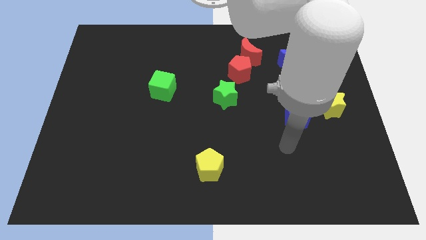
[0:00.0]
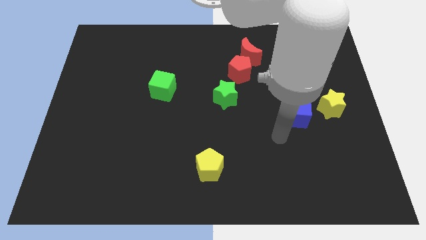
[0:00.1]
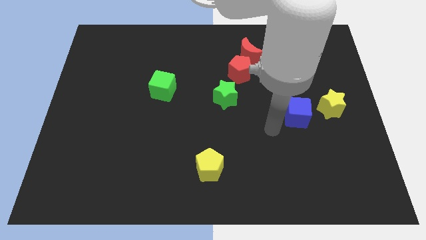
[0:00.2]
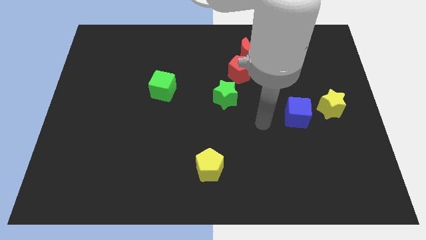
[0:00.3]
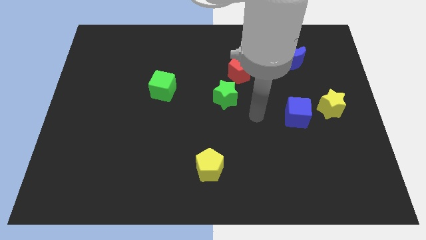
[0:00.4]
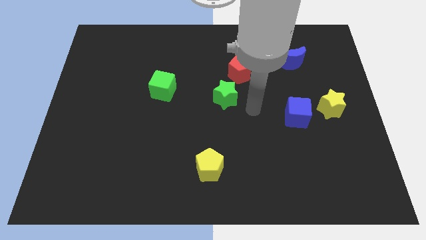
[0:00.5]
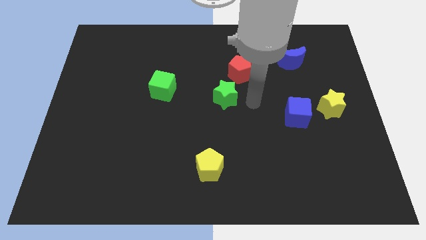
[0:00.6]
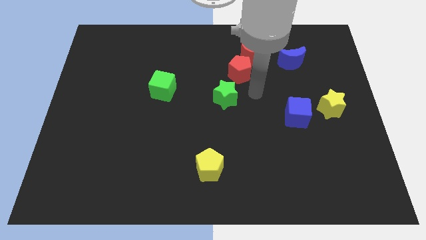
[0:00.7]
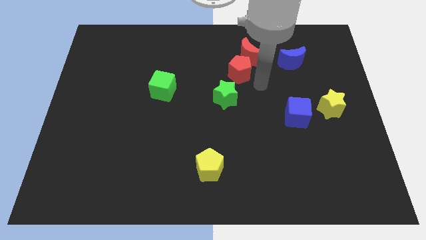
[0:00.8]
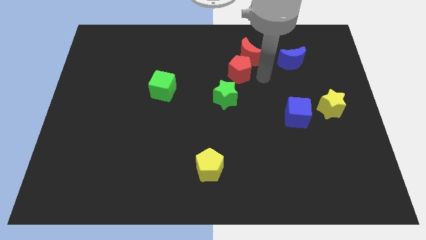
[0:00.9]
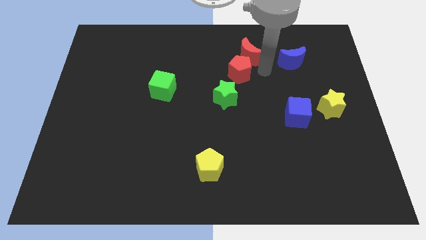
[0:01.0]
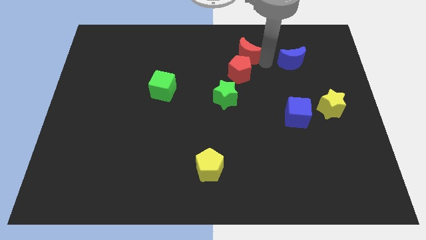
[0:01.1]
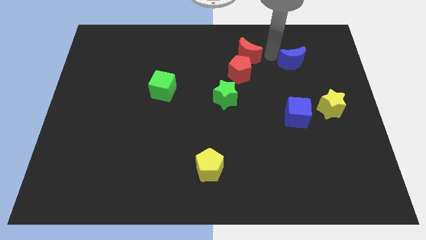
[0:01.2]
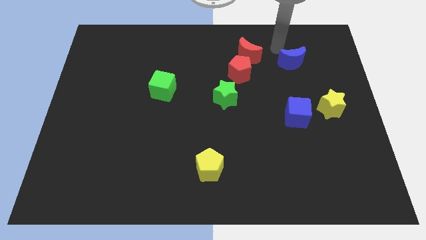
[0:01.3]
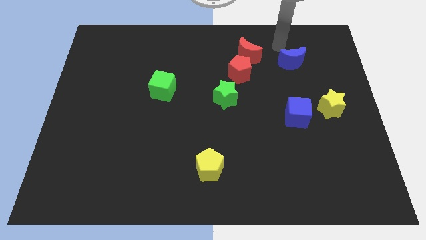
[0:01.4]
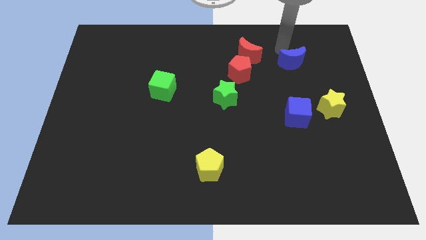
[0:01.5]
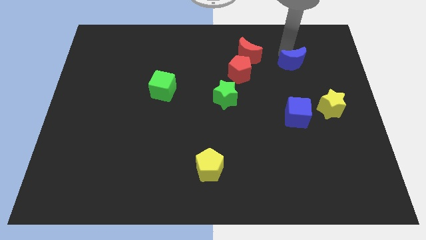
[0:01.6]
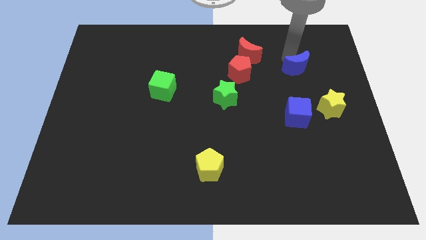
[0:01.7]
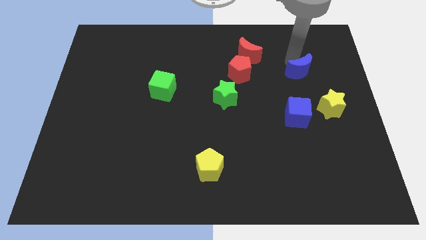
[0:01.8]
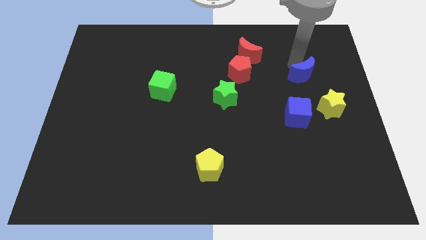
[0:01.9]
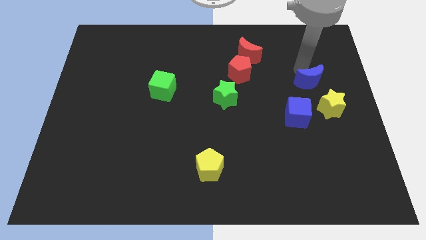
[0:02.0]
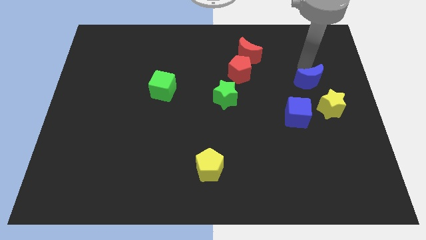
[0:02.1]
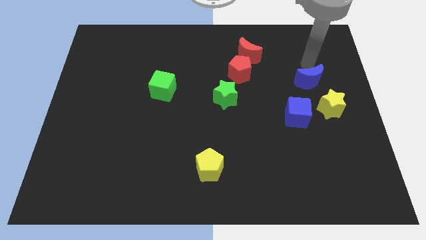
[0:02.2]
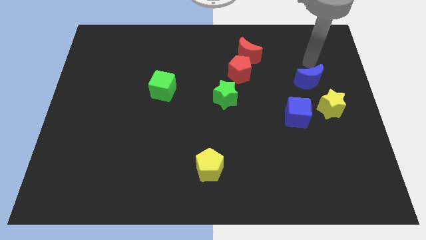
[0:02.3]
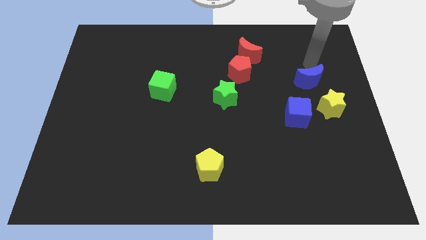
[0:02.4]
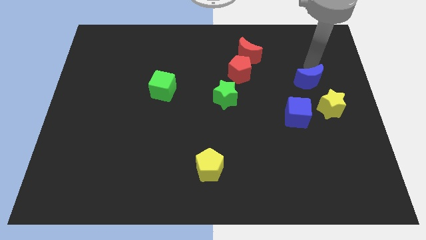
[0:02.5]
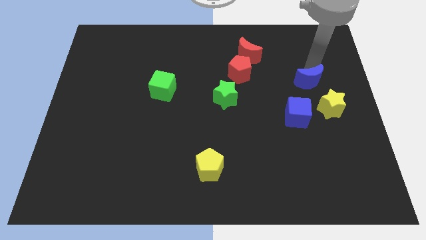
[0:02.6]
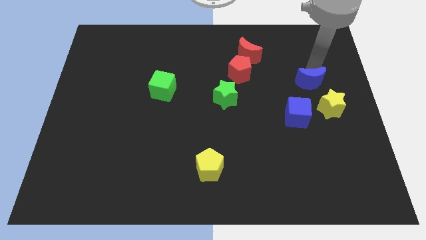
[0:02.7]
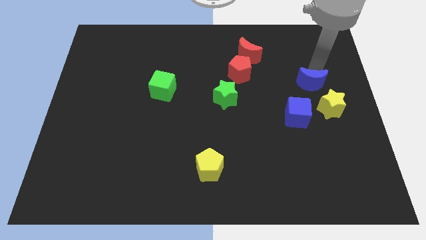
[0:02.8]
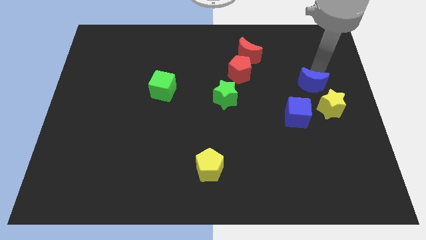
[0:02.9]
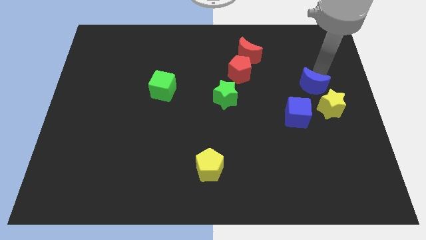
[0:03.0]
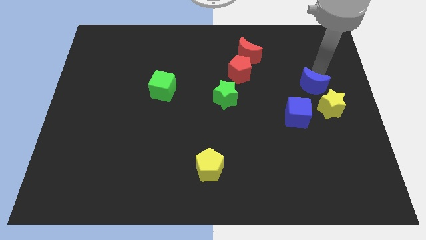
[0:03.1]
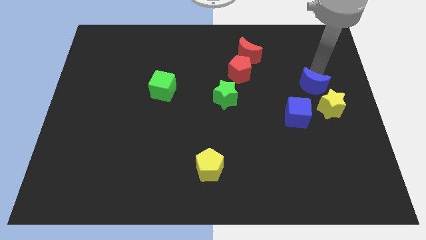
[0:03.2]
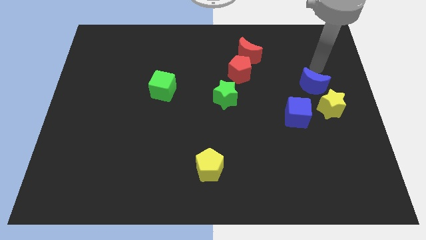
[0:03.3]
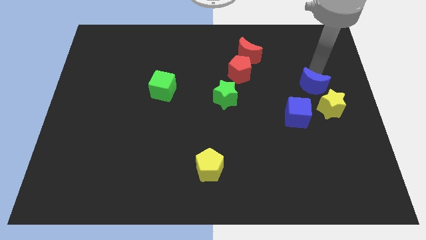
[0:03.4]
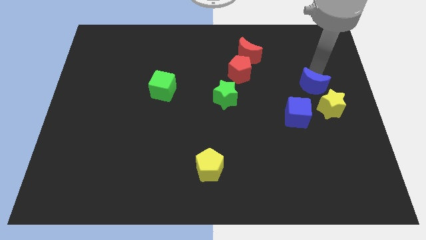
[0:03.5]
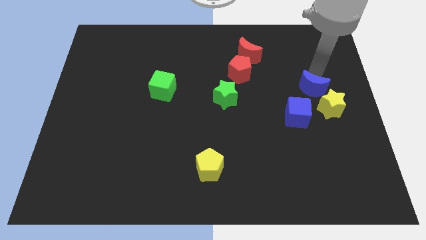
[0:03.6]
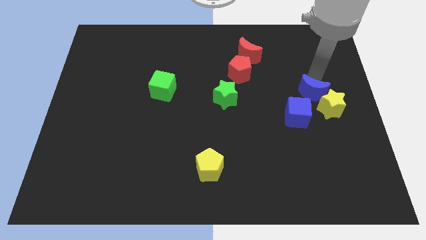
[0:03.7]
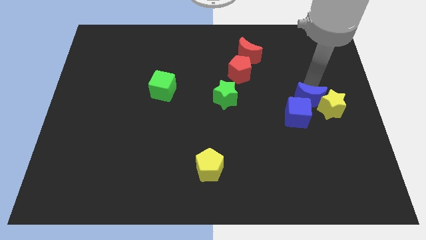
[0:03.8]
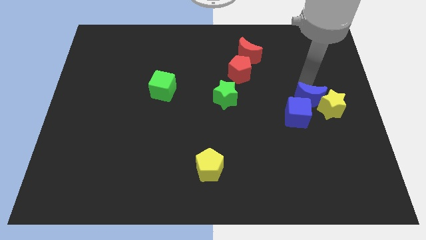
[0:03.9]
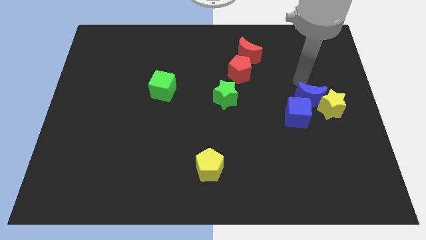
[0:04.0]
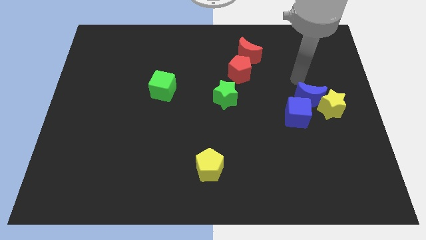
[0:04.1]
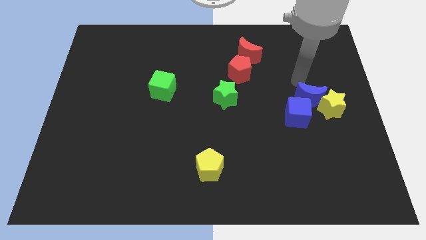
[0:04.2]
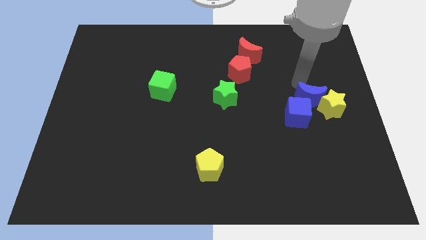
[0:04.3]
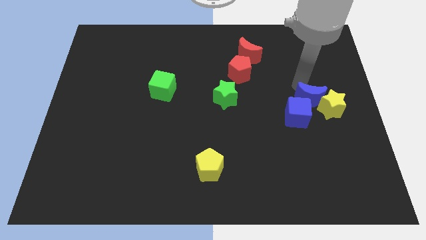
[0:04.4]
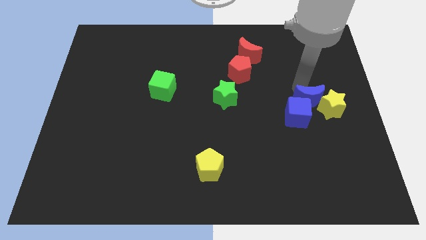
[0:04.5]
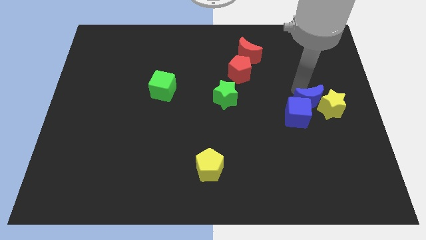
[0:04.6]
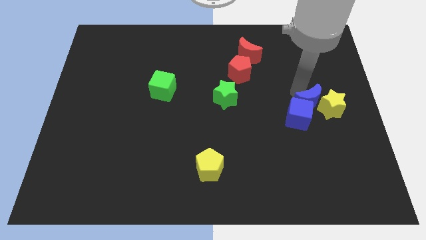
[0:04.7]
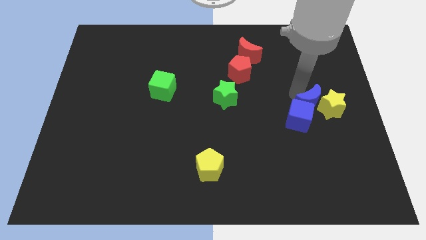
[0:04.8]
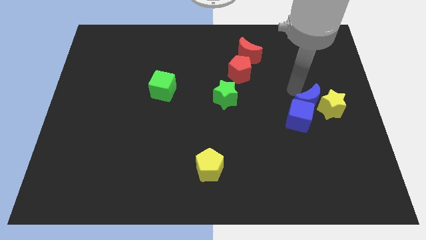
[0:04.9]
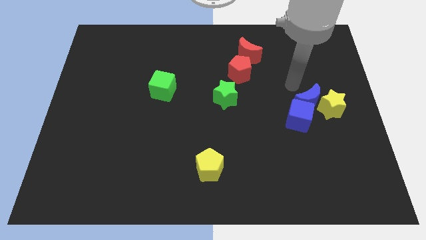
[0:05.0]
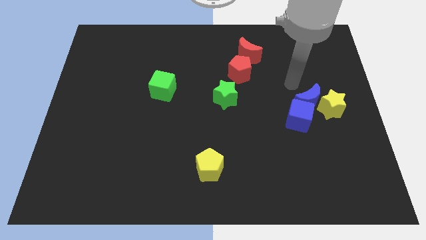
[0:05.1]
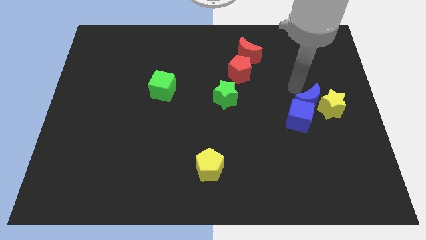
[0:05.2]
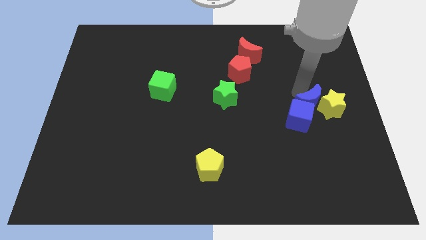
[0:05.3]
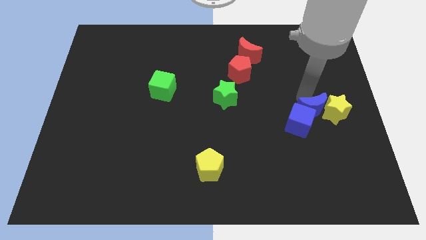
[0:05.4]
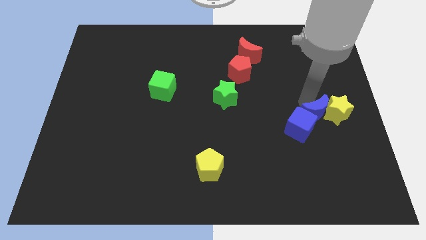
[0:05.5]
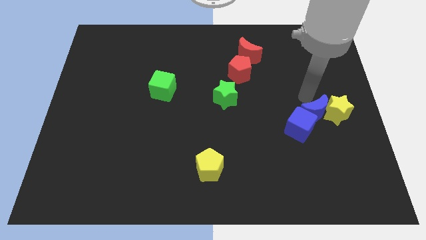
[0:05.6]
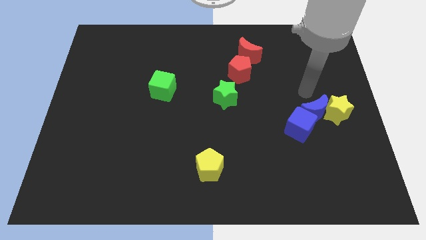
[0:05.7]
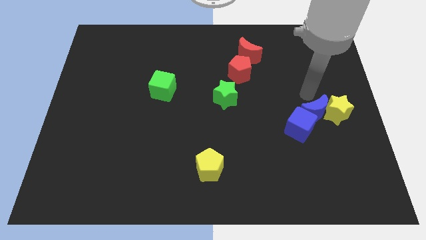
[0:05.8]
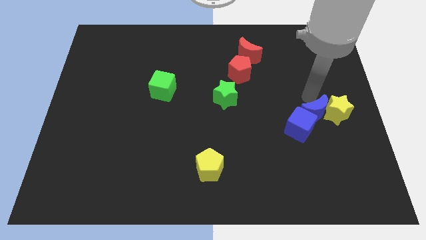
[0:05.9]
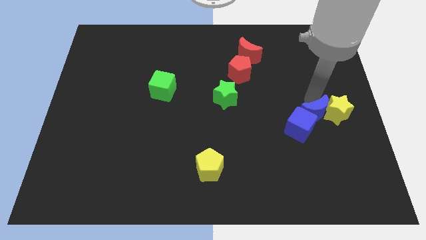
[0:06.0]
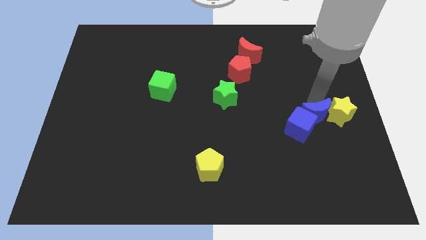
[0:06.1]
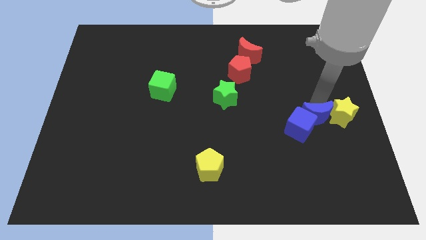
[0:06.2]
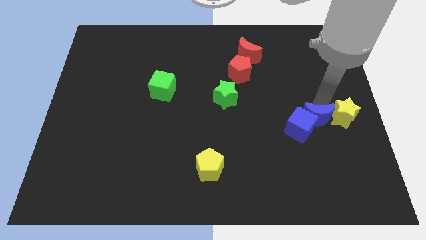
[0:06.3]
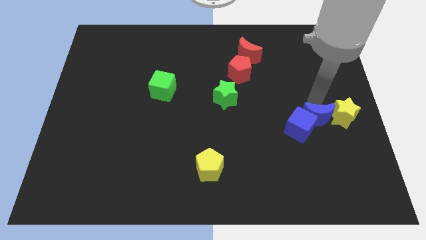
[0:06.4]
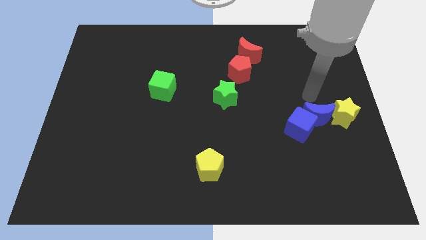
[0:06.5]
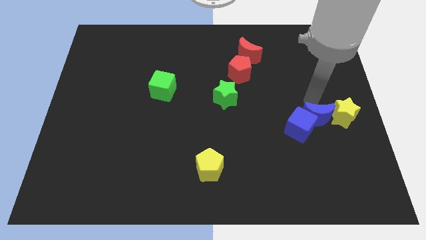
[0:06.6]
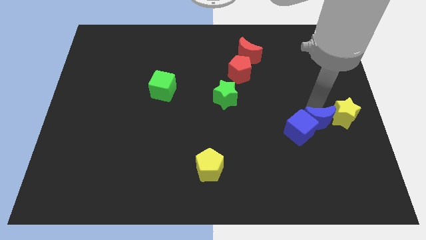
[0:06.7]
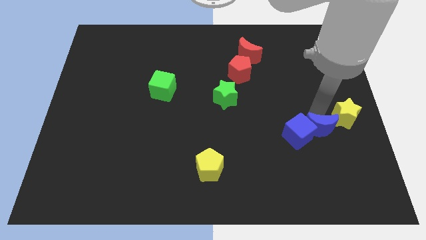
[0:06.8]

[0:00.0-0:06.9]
put the blue moon diagonally down and to the right of the blue cube

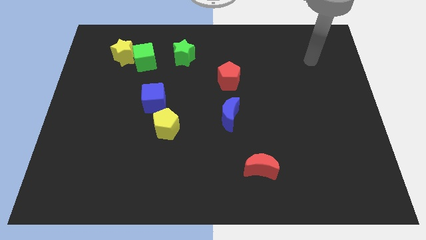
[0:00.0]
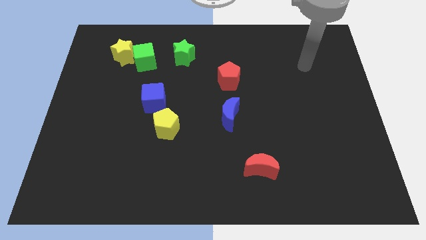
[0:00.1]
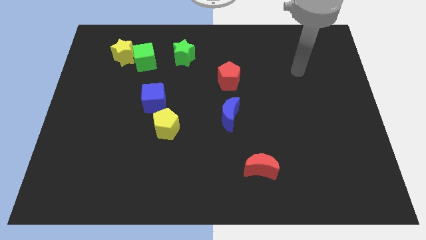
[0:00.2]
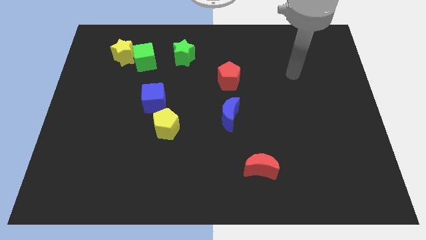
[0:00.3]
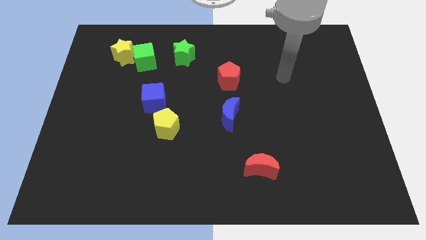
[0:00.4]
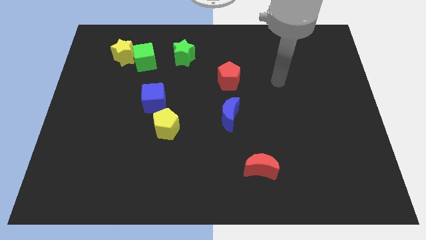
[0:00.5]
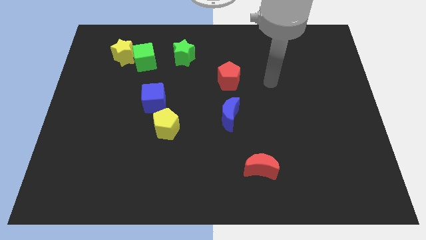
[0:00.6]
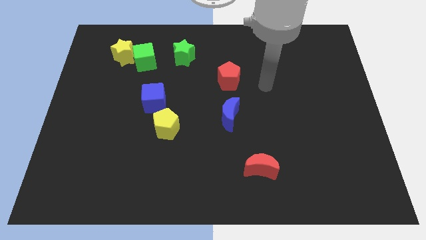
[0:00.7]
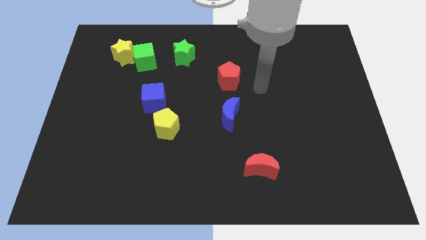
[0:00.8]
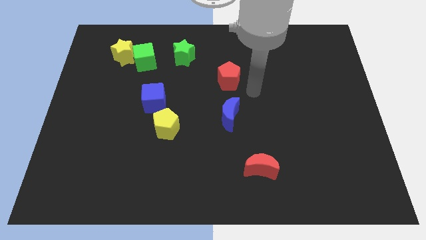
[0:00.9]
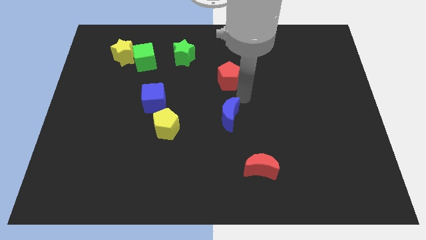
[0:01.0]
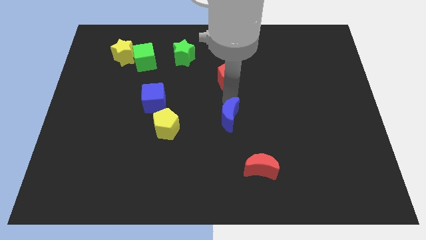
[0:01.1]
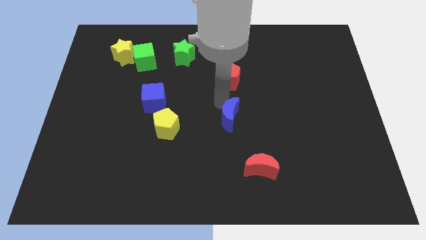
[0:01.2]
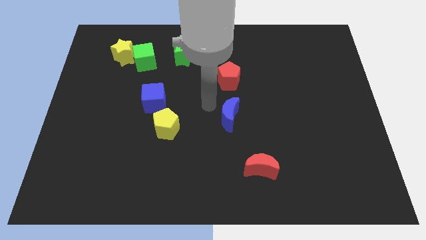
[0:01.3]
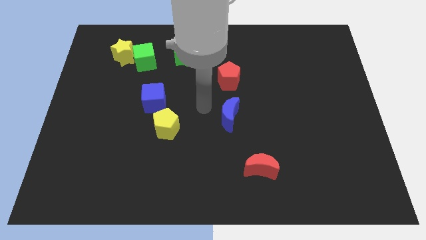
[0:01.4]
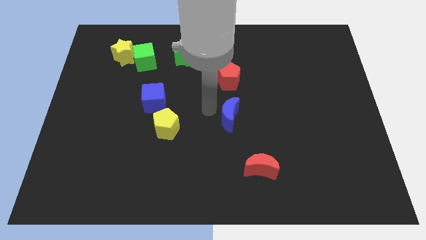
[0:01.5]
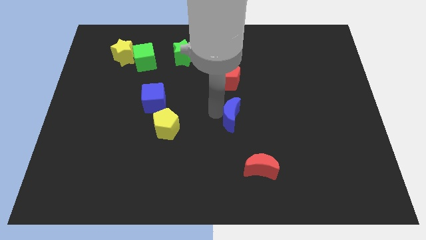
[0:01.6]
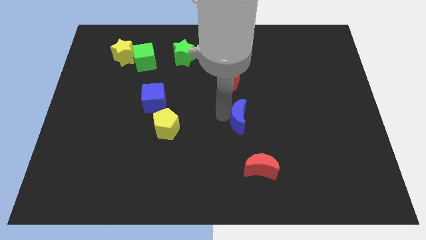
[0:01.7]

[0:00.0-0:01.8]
push the blue moon to the top of the red moon
